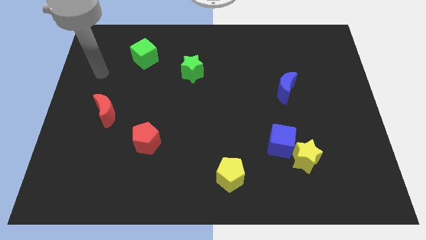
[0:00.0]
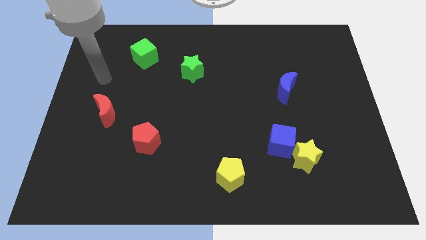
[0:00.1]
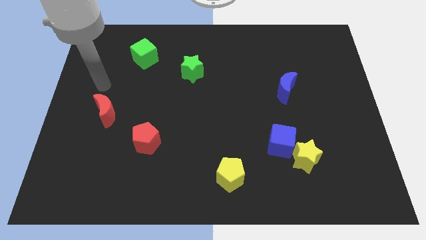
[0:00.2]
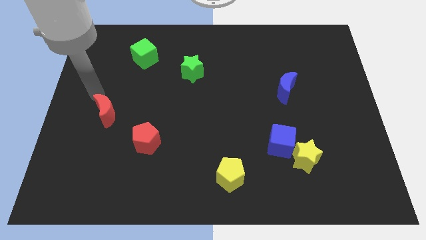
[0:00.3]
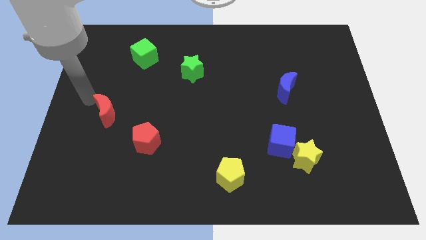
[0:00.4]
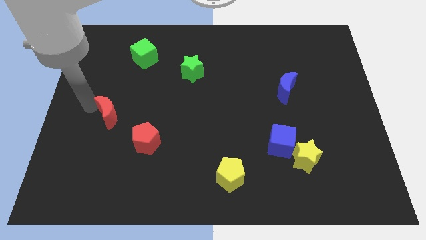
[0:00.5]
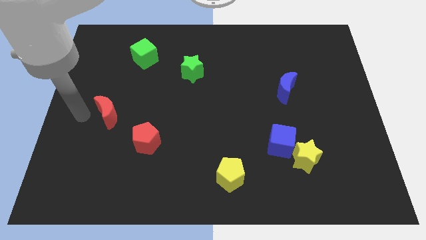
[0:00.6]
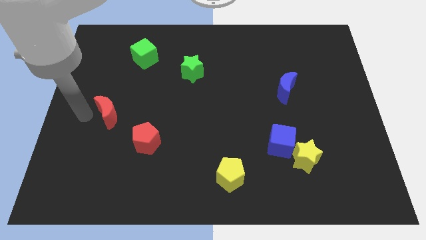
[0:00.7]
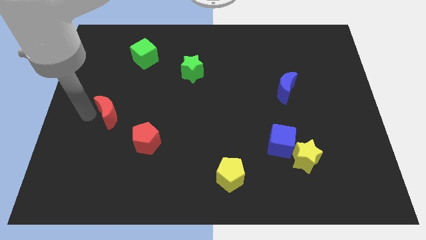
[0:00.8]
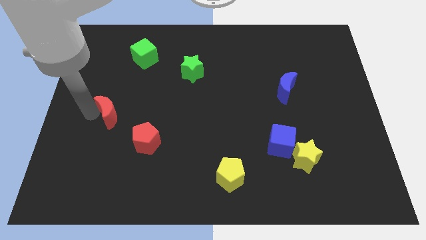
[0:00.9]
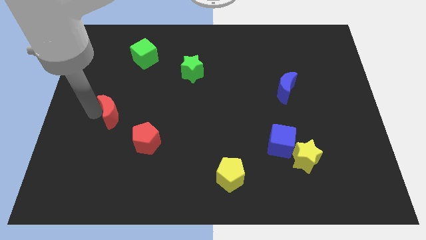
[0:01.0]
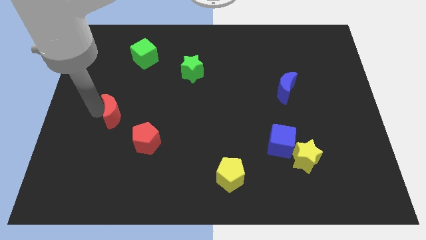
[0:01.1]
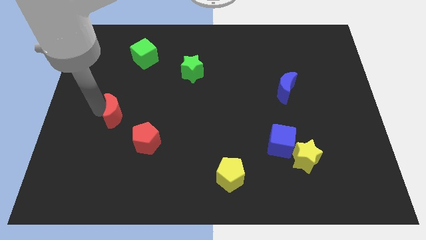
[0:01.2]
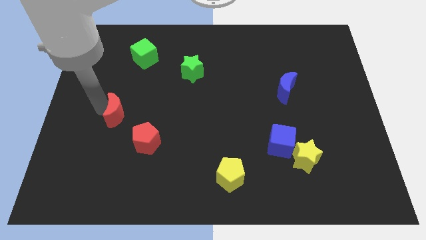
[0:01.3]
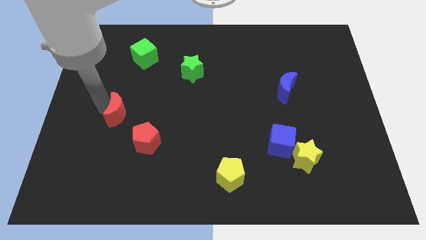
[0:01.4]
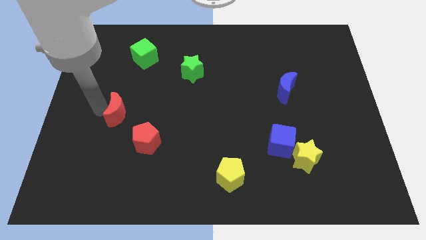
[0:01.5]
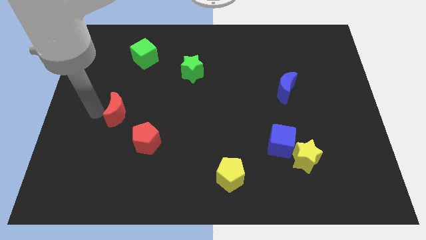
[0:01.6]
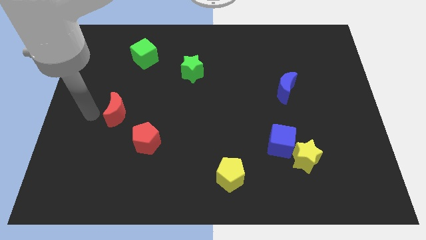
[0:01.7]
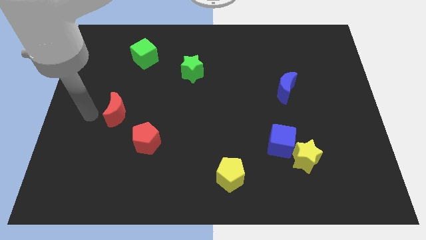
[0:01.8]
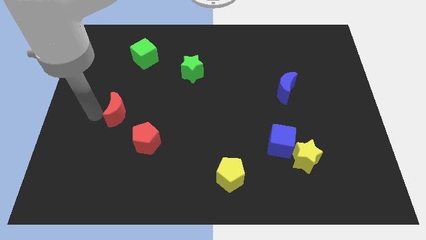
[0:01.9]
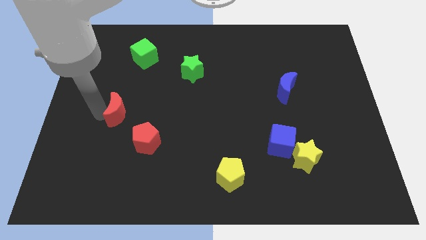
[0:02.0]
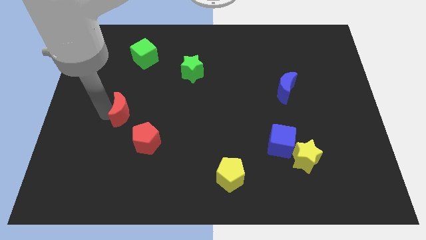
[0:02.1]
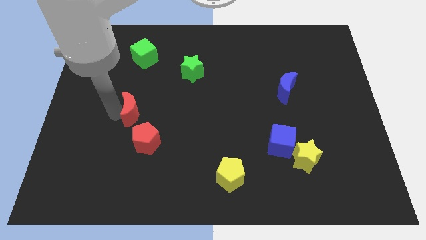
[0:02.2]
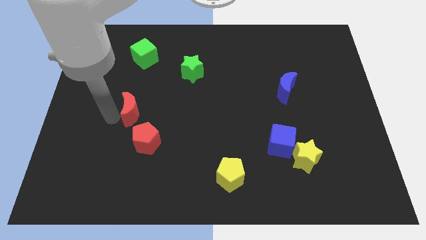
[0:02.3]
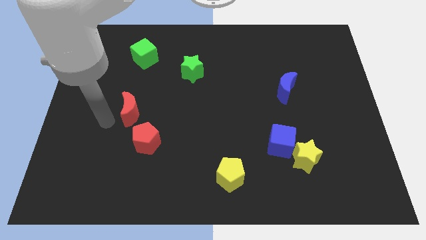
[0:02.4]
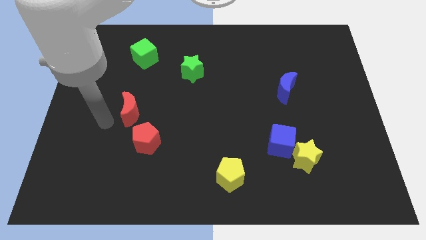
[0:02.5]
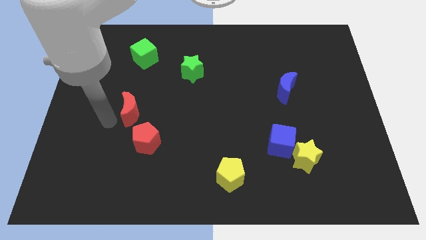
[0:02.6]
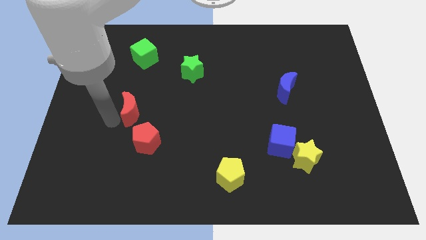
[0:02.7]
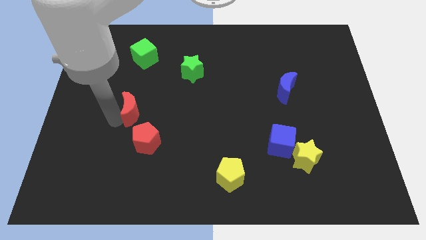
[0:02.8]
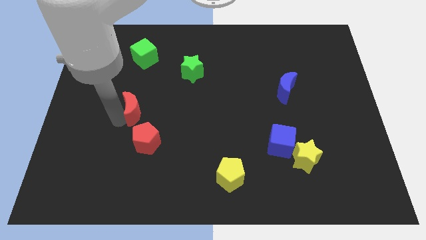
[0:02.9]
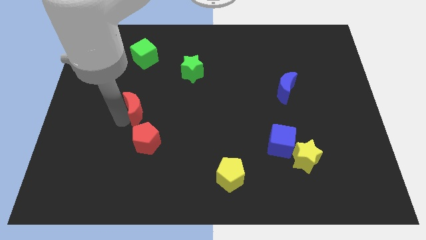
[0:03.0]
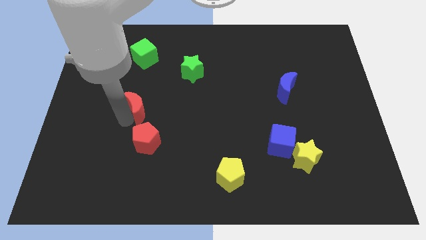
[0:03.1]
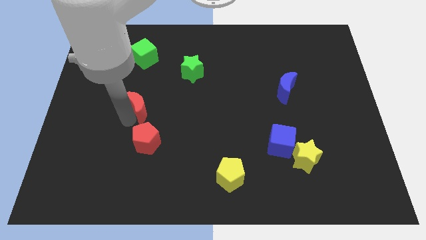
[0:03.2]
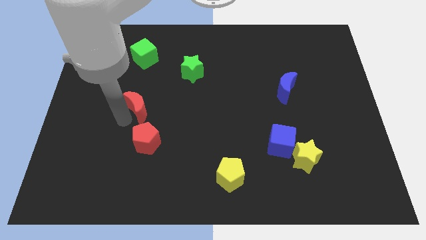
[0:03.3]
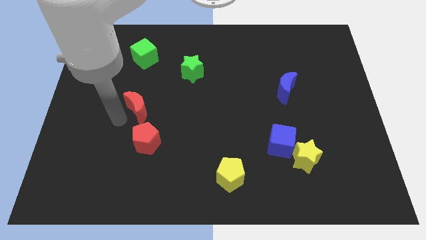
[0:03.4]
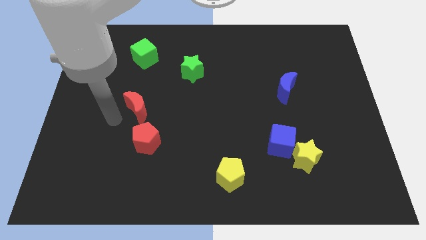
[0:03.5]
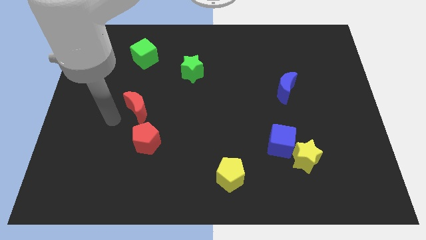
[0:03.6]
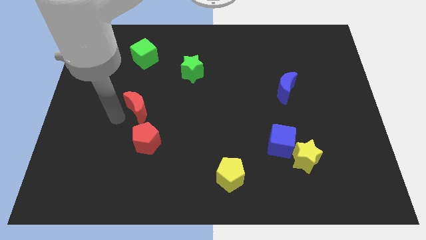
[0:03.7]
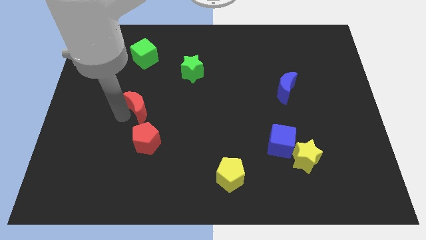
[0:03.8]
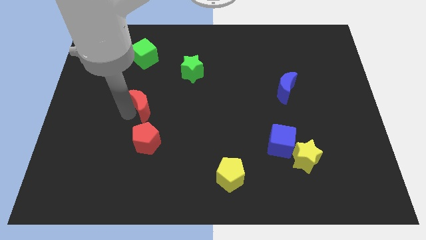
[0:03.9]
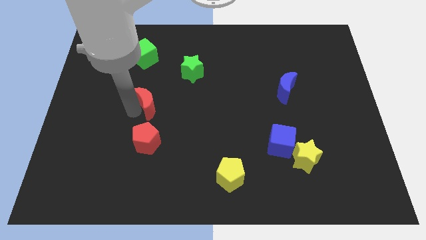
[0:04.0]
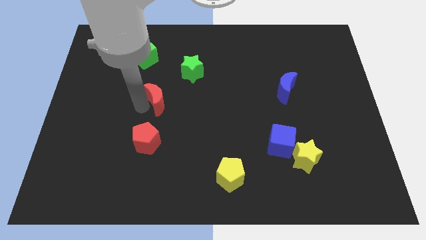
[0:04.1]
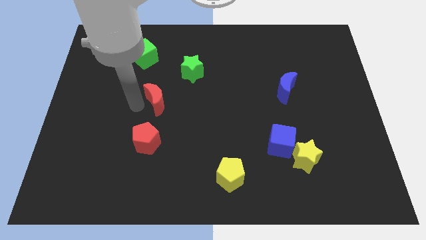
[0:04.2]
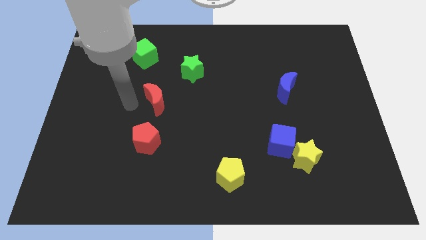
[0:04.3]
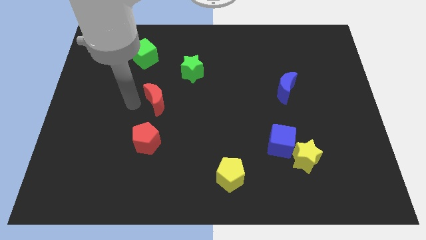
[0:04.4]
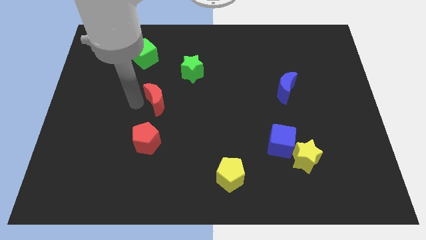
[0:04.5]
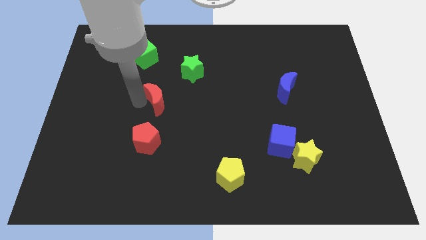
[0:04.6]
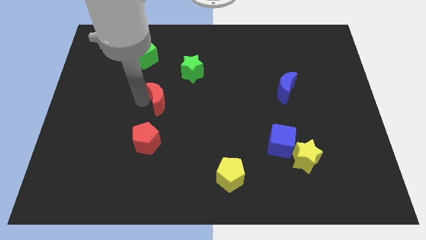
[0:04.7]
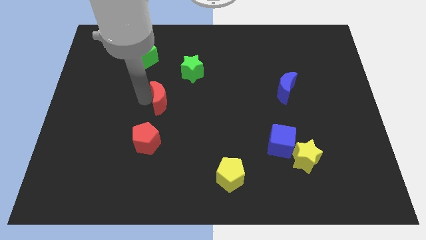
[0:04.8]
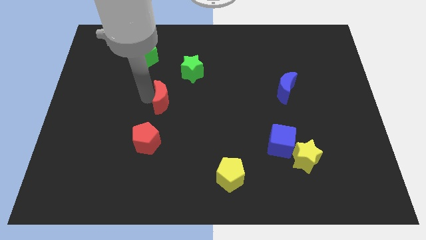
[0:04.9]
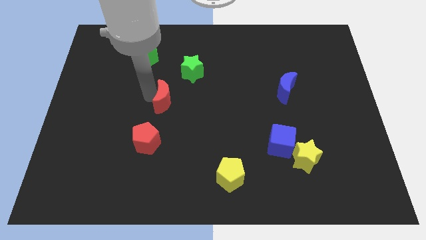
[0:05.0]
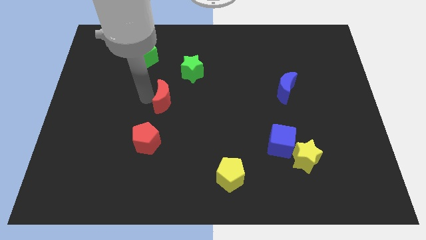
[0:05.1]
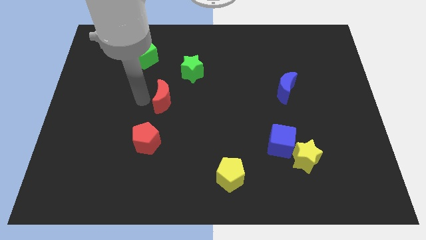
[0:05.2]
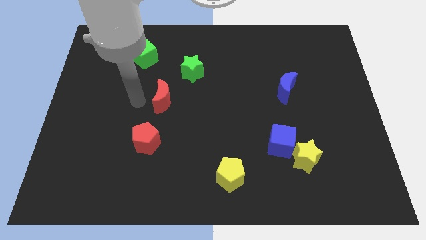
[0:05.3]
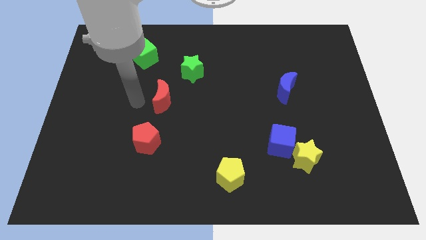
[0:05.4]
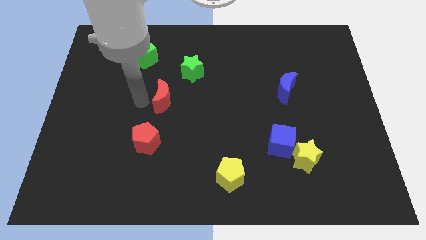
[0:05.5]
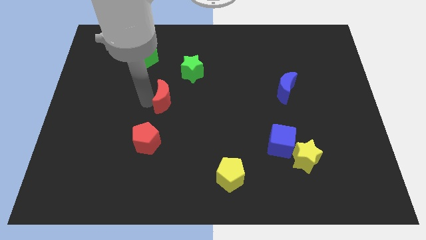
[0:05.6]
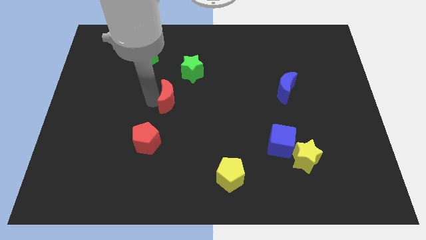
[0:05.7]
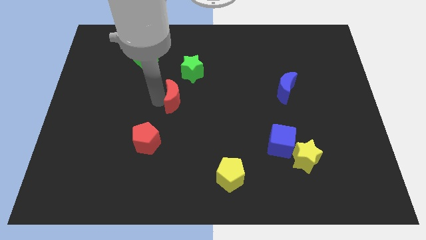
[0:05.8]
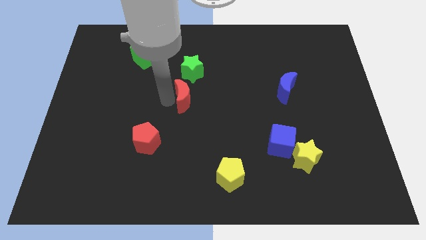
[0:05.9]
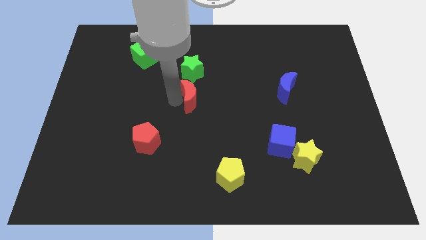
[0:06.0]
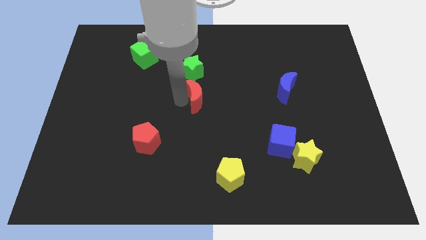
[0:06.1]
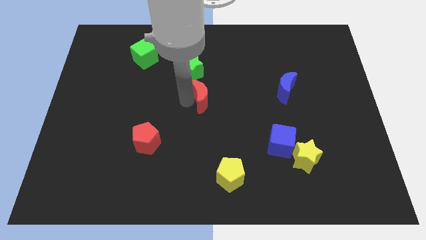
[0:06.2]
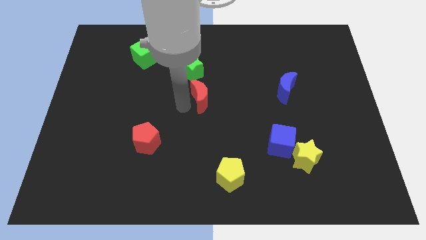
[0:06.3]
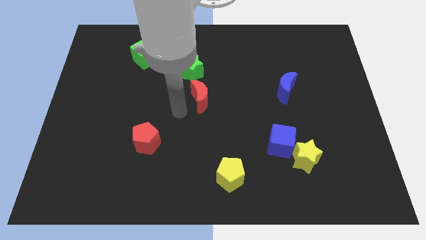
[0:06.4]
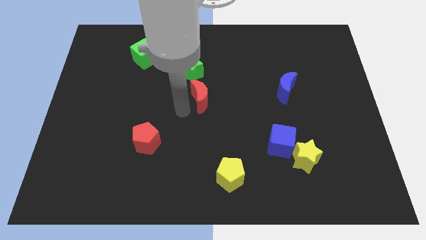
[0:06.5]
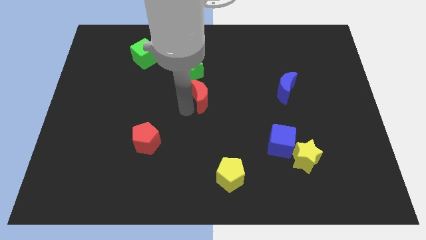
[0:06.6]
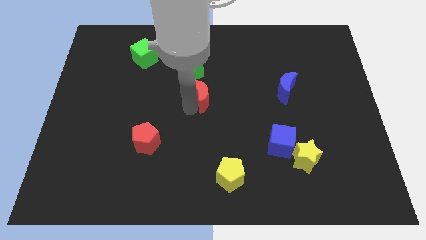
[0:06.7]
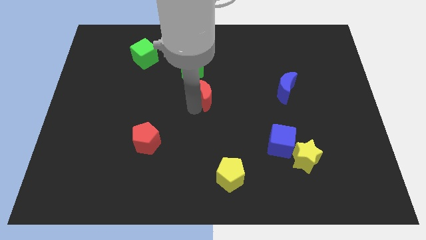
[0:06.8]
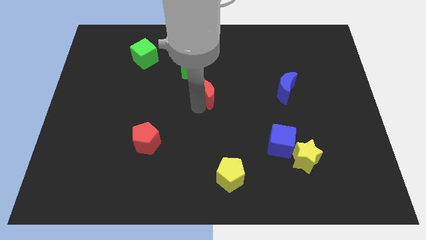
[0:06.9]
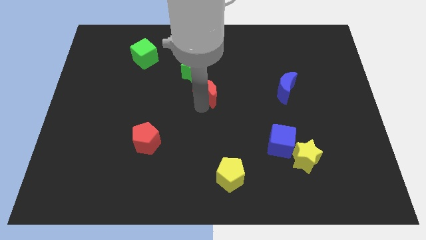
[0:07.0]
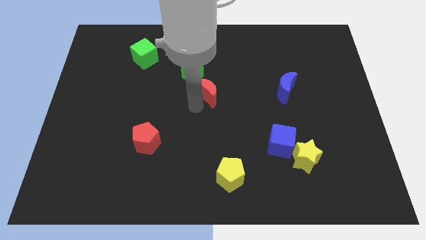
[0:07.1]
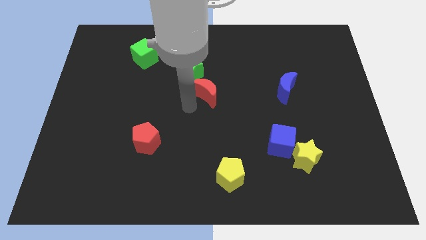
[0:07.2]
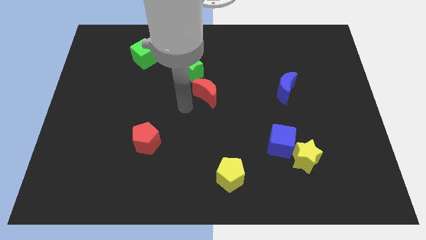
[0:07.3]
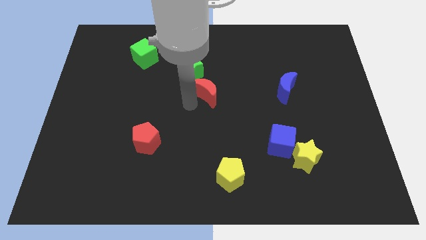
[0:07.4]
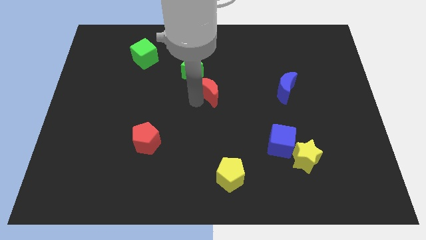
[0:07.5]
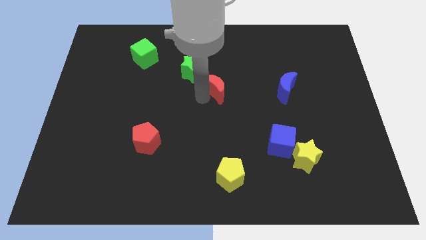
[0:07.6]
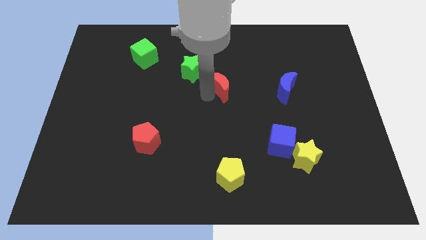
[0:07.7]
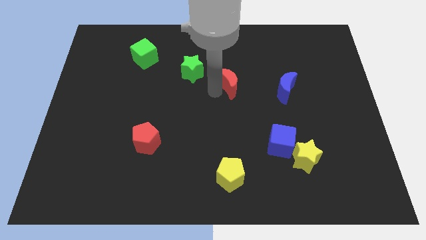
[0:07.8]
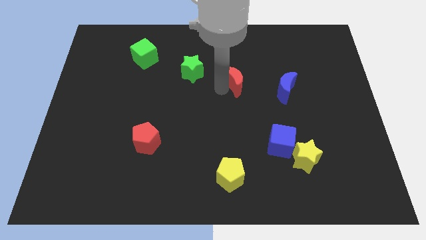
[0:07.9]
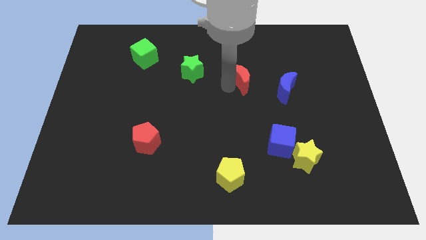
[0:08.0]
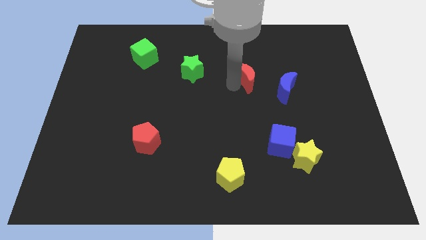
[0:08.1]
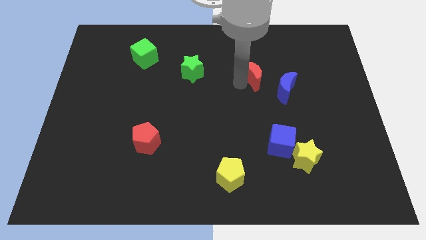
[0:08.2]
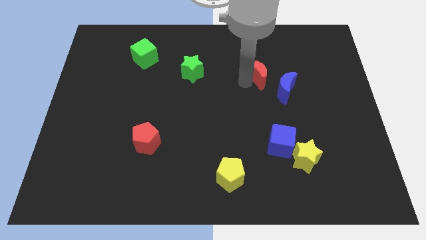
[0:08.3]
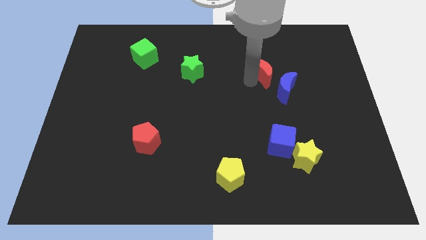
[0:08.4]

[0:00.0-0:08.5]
put the red moon to the top side of the blue moon
